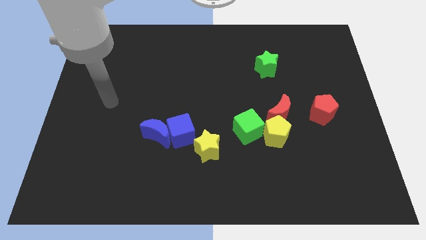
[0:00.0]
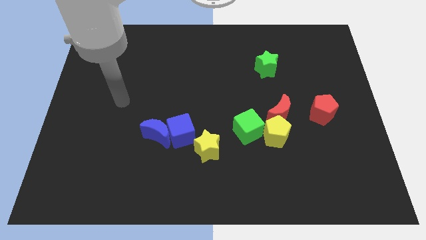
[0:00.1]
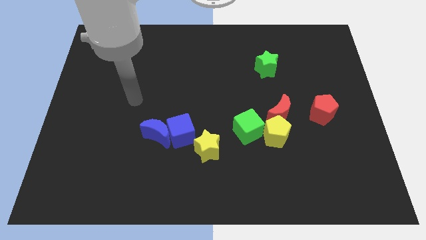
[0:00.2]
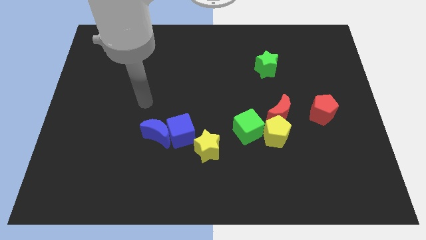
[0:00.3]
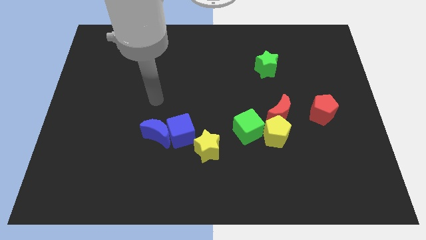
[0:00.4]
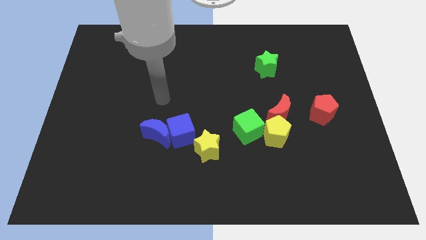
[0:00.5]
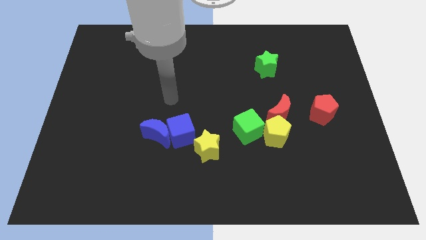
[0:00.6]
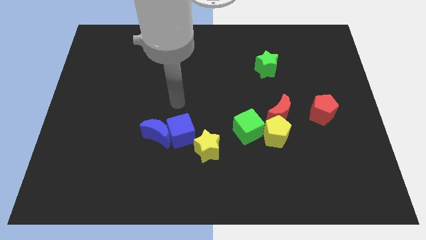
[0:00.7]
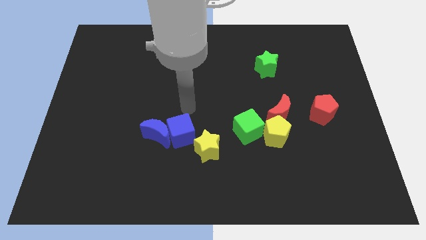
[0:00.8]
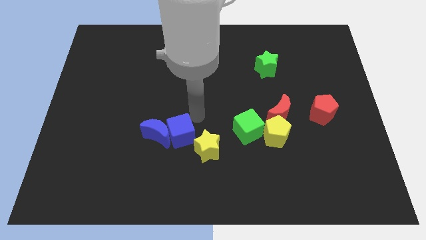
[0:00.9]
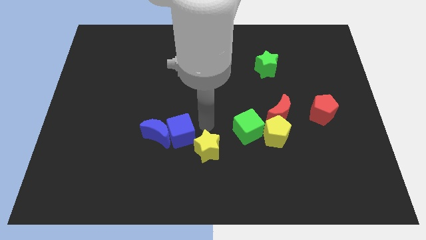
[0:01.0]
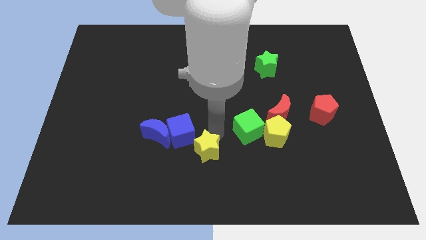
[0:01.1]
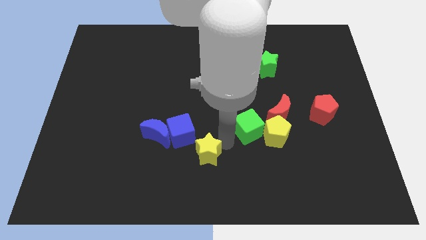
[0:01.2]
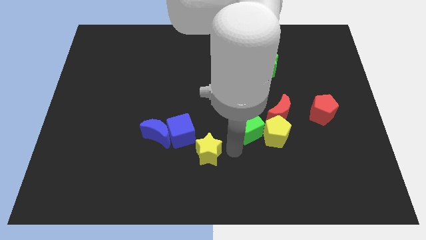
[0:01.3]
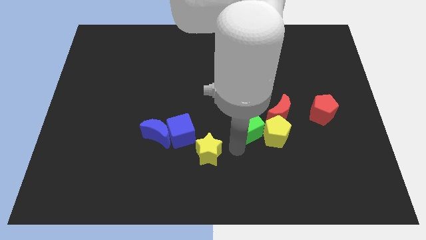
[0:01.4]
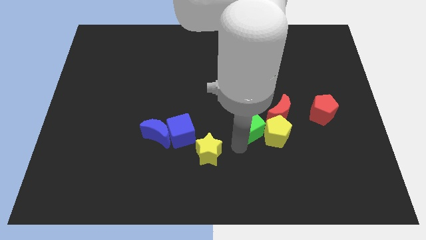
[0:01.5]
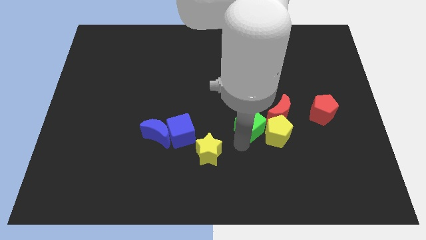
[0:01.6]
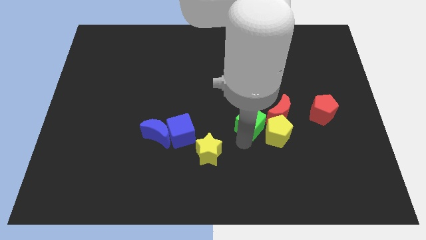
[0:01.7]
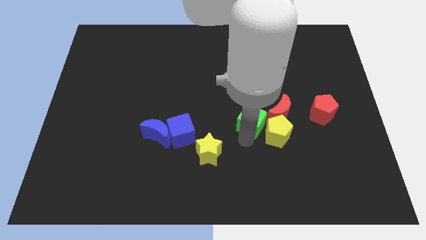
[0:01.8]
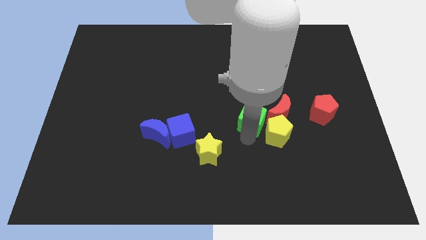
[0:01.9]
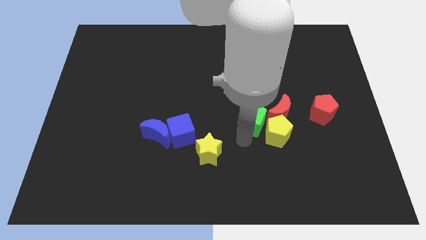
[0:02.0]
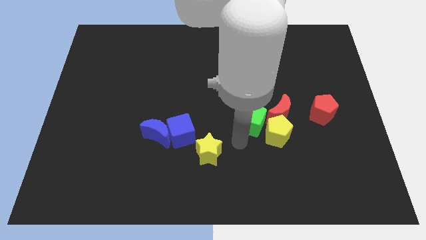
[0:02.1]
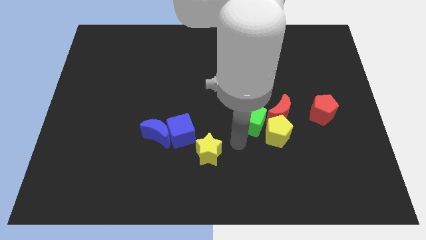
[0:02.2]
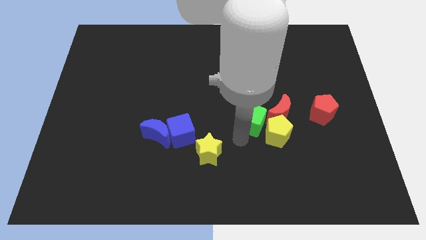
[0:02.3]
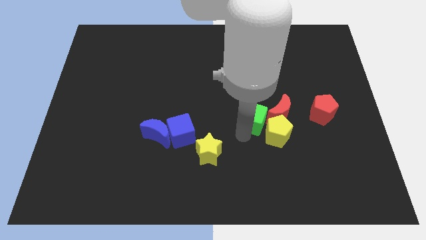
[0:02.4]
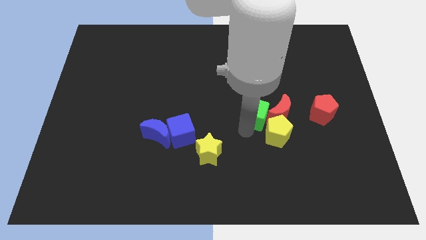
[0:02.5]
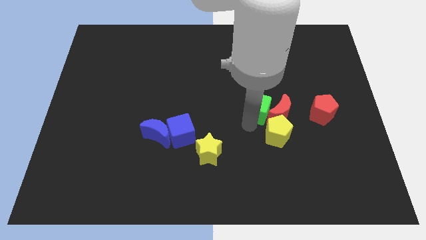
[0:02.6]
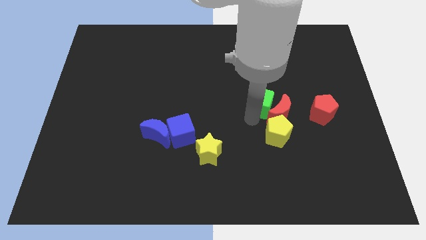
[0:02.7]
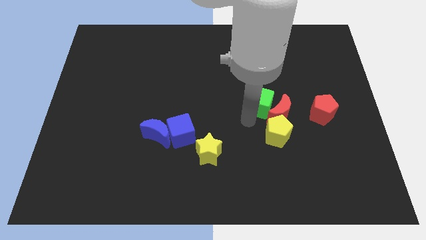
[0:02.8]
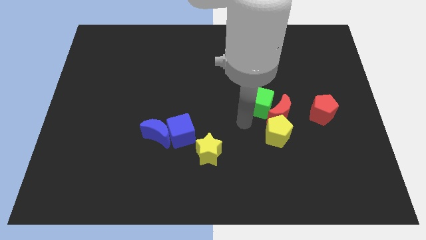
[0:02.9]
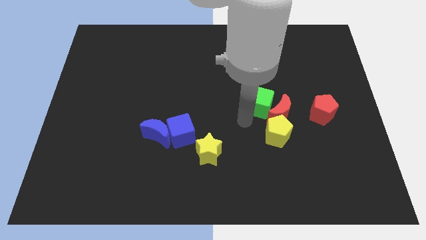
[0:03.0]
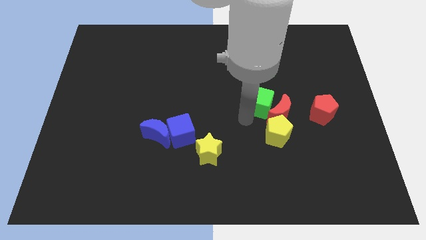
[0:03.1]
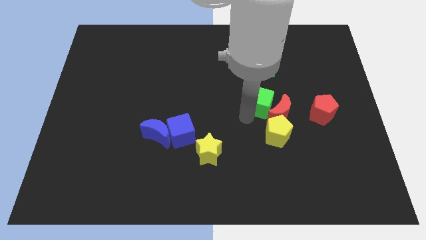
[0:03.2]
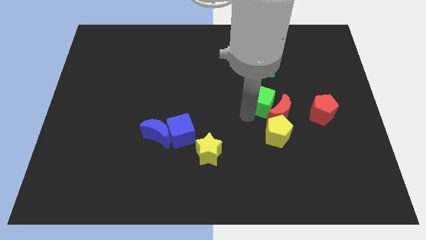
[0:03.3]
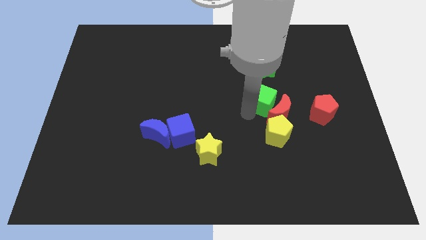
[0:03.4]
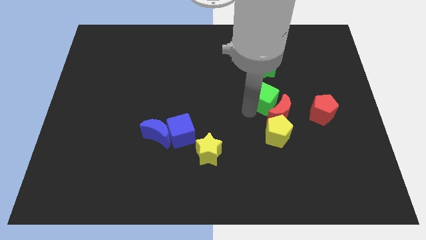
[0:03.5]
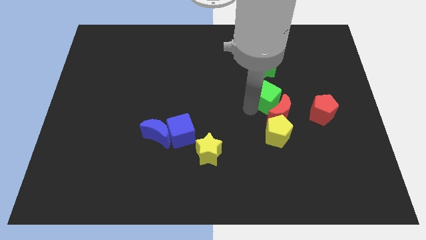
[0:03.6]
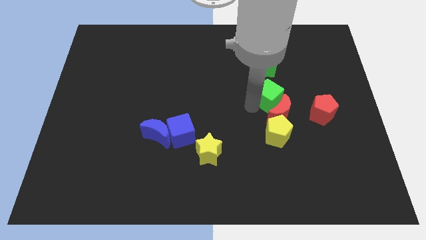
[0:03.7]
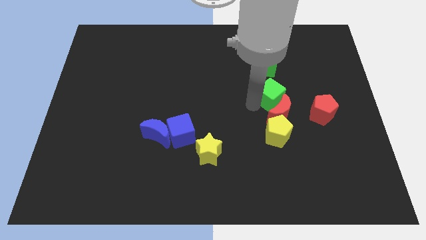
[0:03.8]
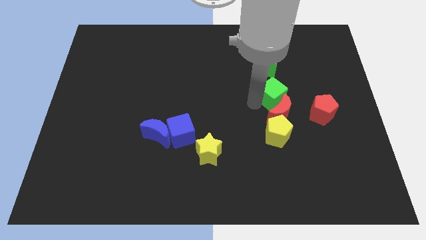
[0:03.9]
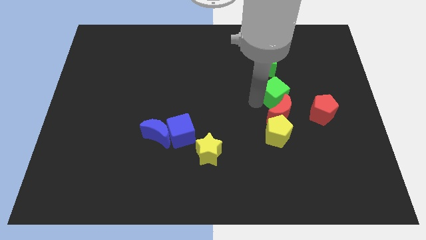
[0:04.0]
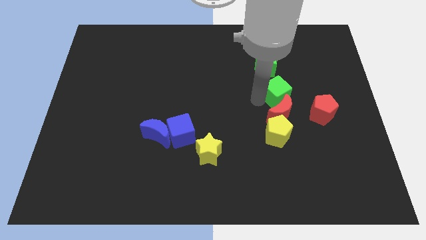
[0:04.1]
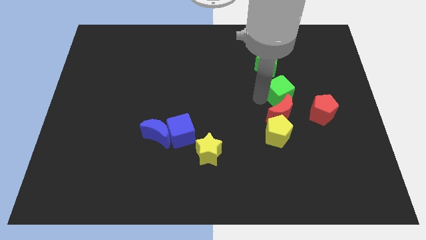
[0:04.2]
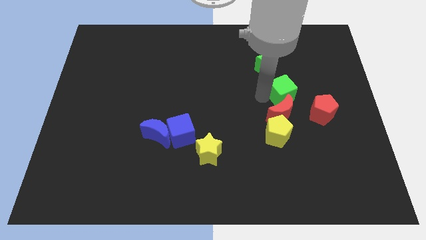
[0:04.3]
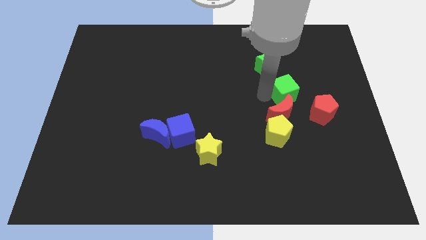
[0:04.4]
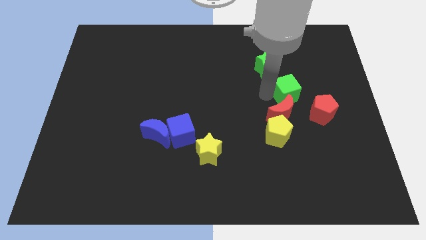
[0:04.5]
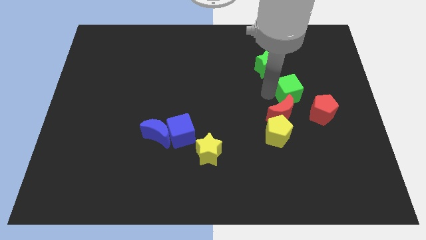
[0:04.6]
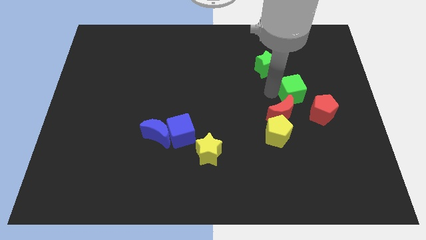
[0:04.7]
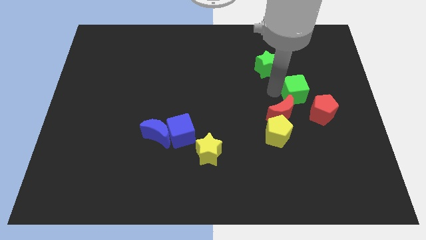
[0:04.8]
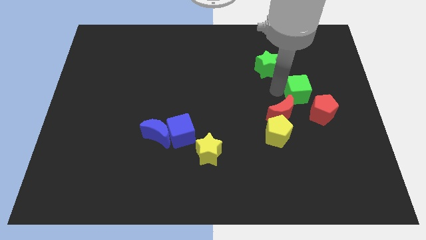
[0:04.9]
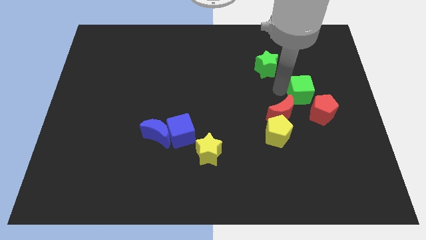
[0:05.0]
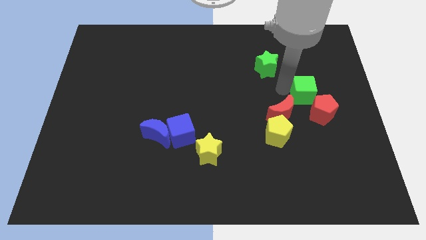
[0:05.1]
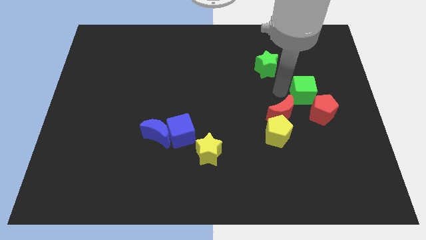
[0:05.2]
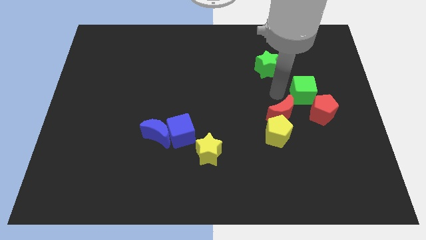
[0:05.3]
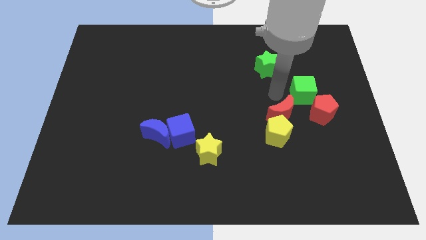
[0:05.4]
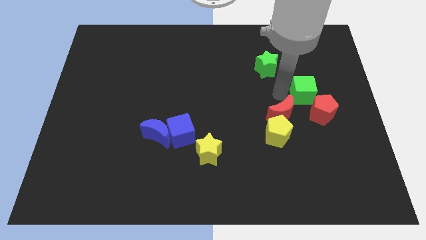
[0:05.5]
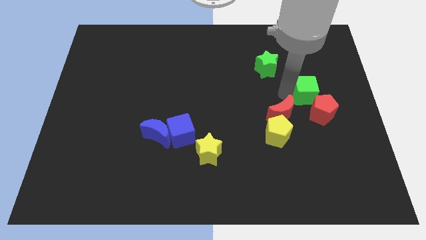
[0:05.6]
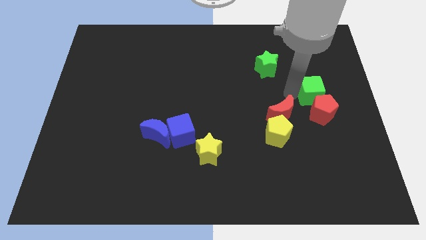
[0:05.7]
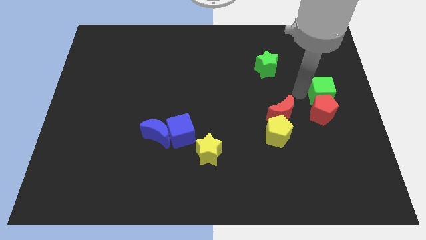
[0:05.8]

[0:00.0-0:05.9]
slide the green cube to the center right

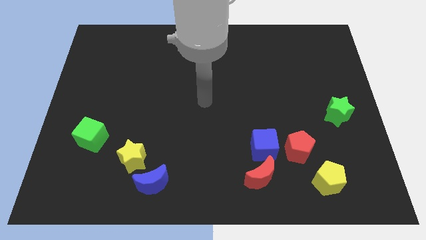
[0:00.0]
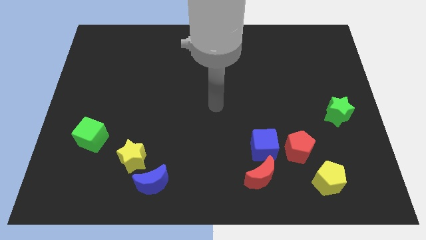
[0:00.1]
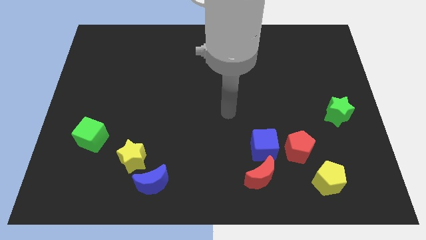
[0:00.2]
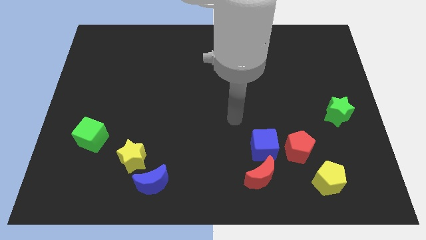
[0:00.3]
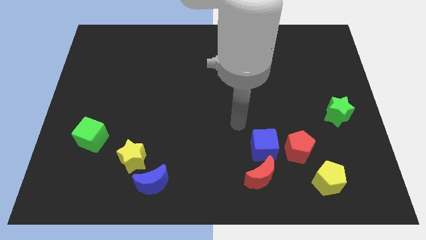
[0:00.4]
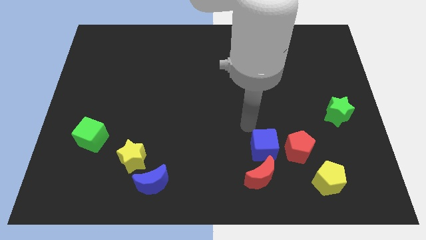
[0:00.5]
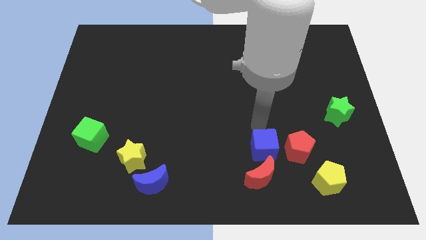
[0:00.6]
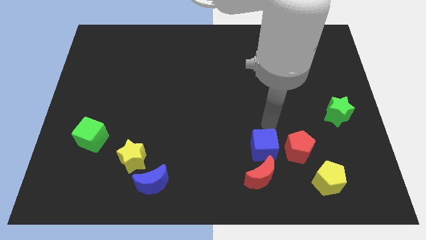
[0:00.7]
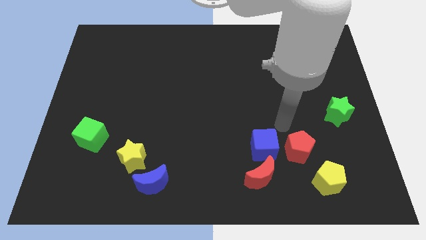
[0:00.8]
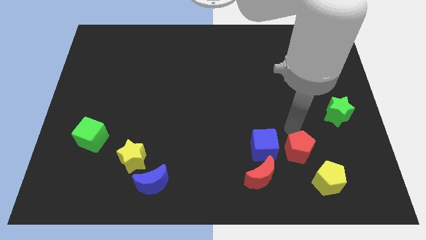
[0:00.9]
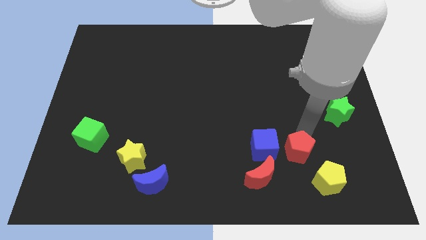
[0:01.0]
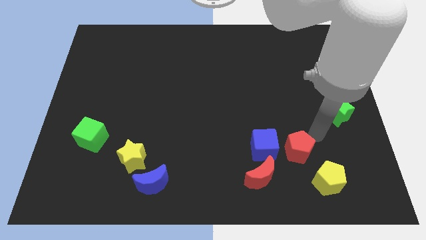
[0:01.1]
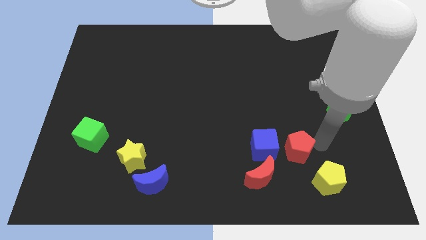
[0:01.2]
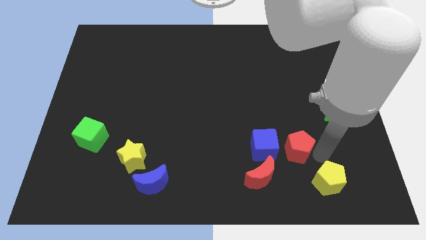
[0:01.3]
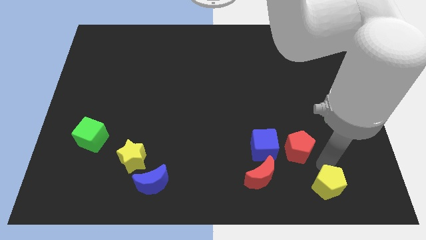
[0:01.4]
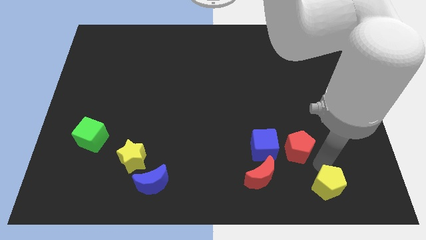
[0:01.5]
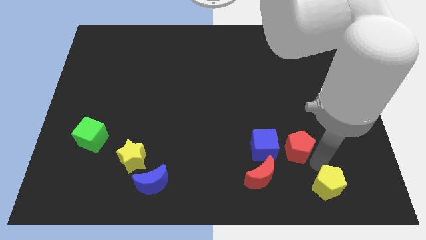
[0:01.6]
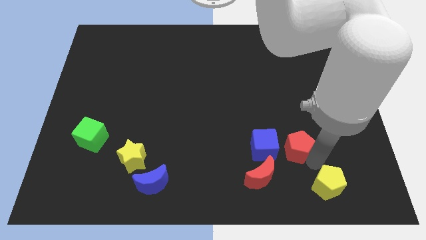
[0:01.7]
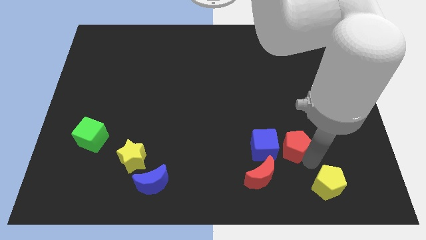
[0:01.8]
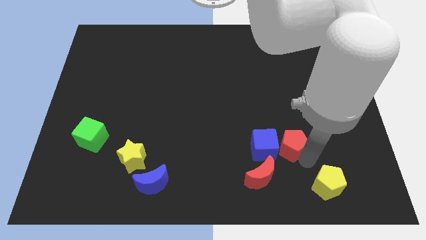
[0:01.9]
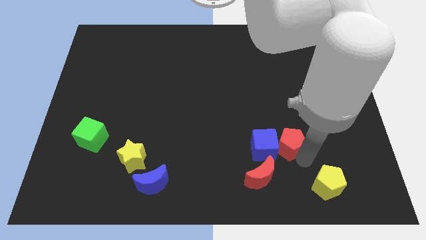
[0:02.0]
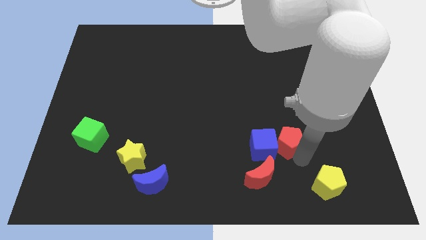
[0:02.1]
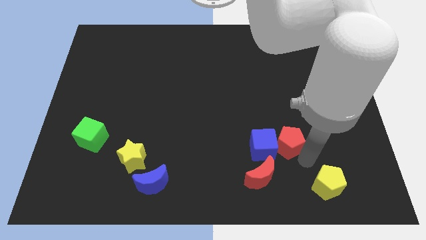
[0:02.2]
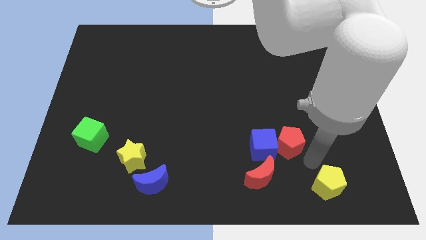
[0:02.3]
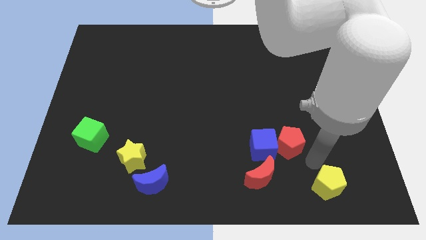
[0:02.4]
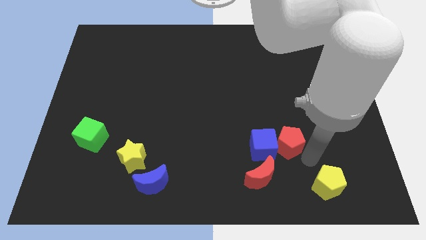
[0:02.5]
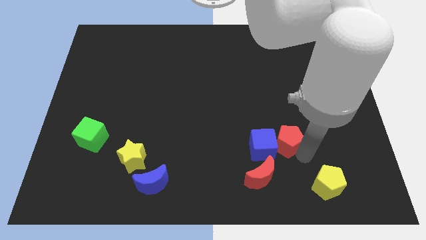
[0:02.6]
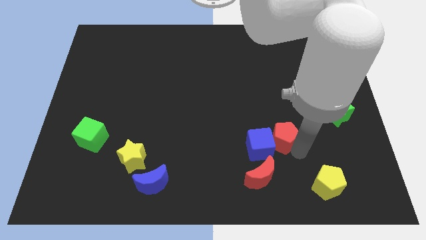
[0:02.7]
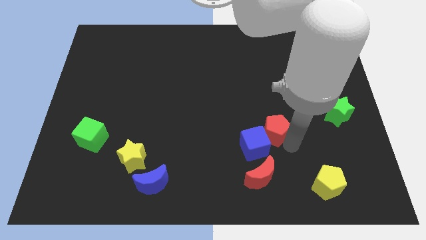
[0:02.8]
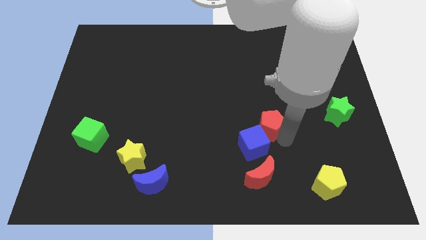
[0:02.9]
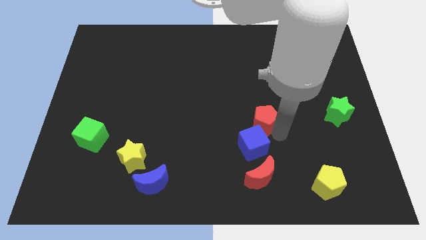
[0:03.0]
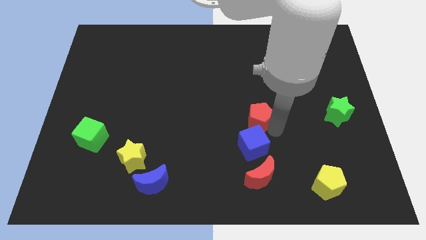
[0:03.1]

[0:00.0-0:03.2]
push the red pentagon to the center
